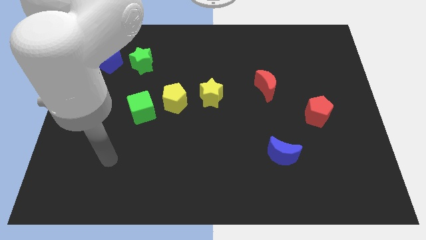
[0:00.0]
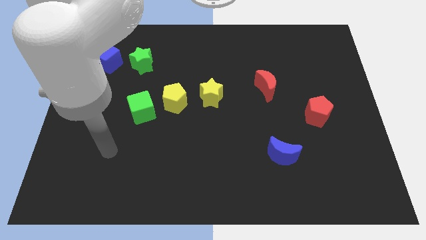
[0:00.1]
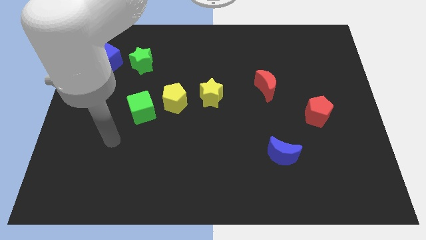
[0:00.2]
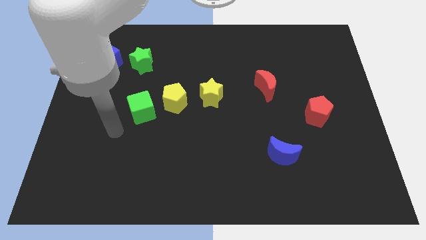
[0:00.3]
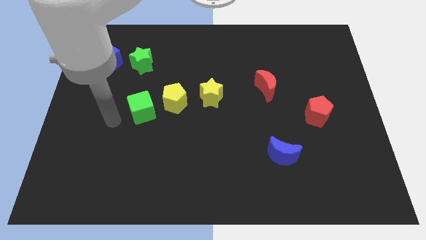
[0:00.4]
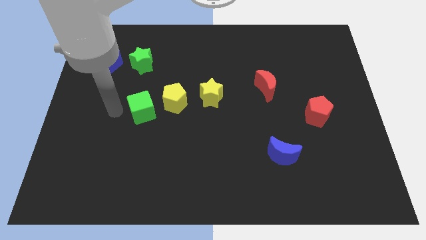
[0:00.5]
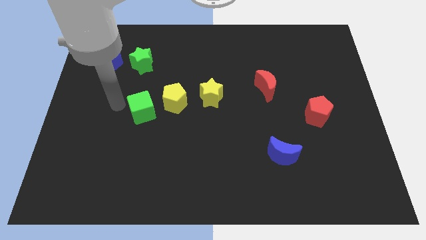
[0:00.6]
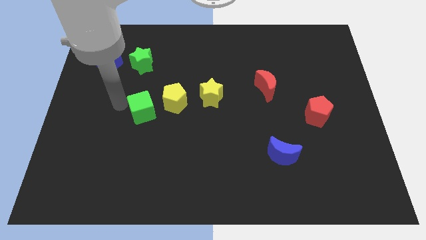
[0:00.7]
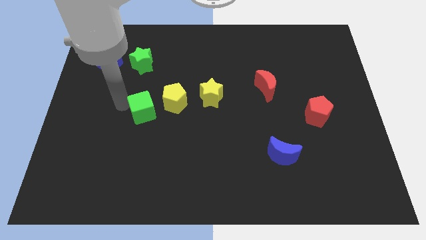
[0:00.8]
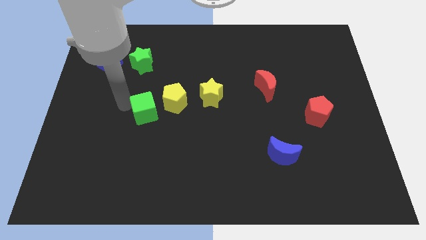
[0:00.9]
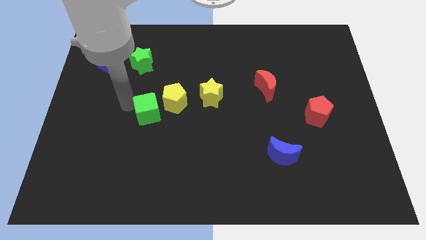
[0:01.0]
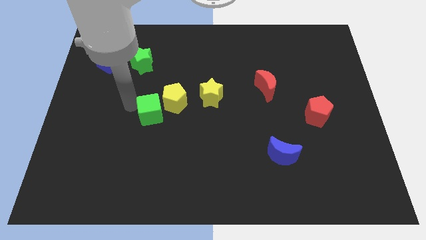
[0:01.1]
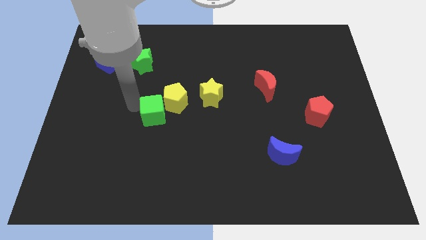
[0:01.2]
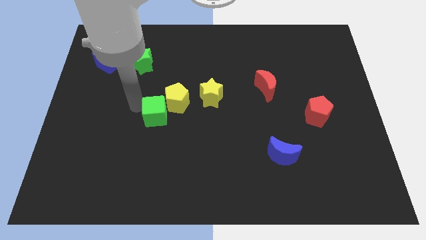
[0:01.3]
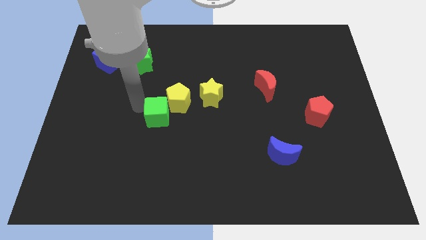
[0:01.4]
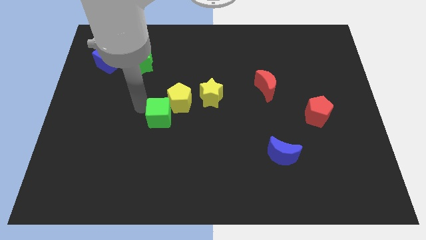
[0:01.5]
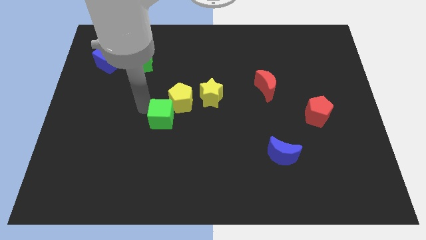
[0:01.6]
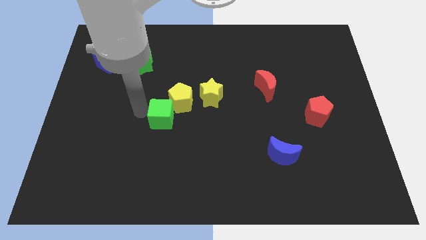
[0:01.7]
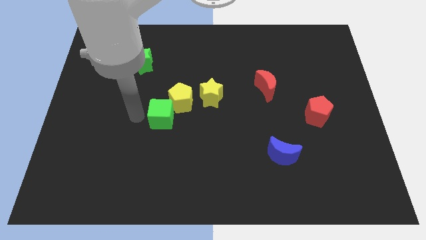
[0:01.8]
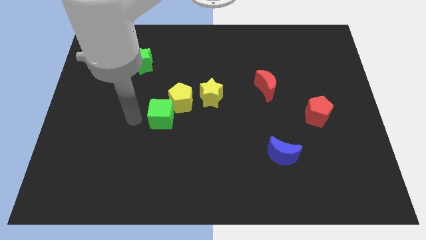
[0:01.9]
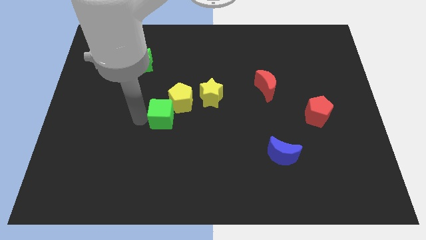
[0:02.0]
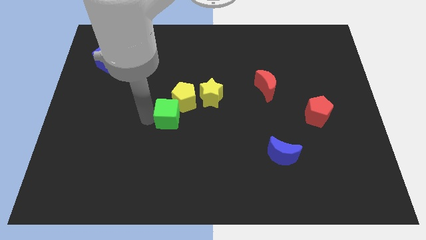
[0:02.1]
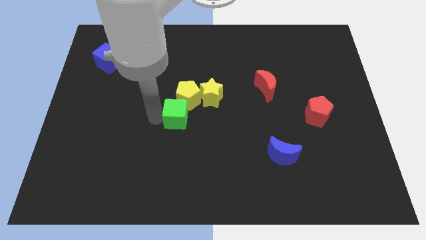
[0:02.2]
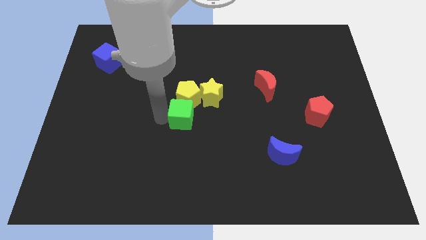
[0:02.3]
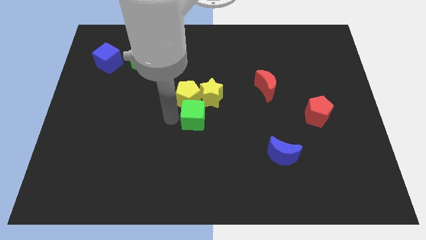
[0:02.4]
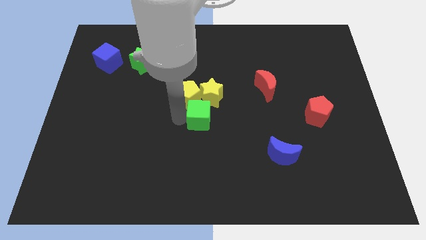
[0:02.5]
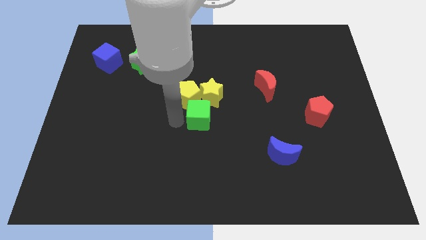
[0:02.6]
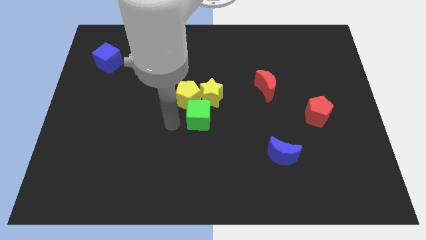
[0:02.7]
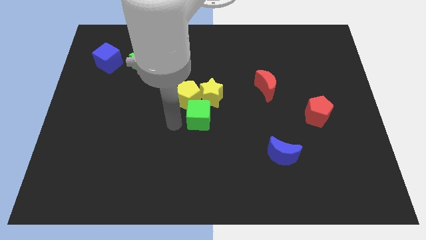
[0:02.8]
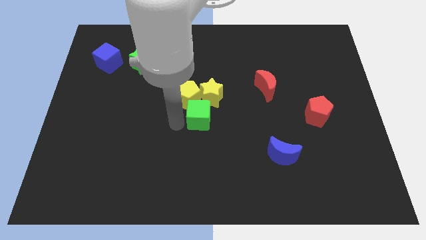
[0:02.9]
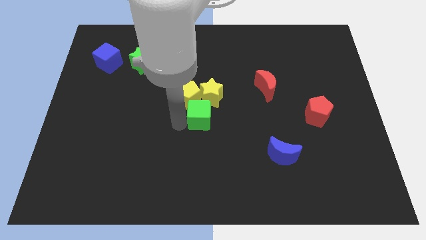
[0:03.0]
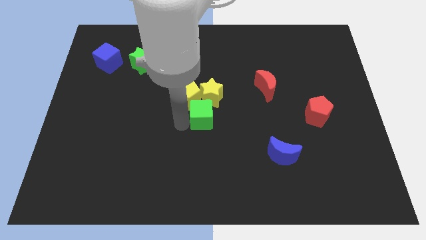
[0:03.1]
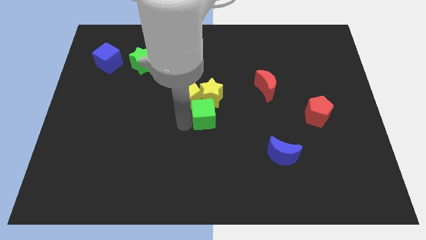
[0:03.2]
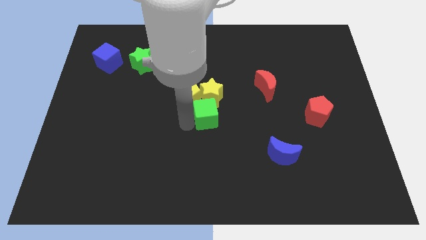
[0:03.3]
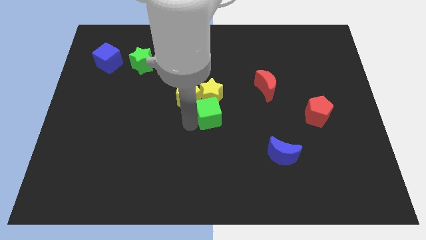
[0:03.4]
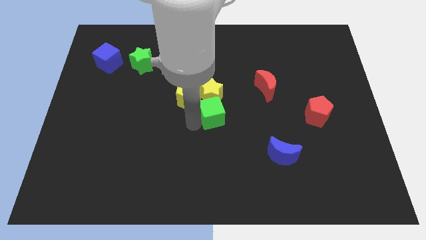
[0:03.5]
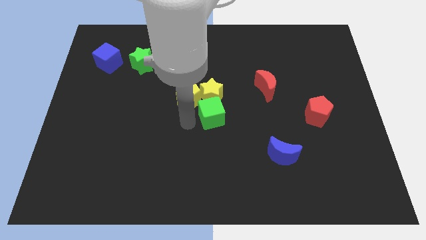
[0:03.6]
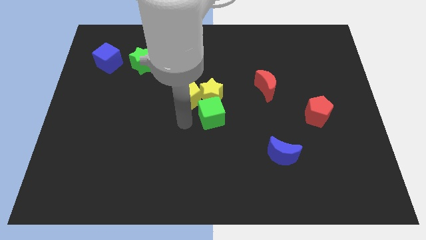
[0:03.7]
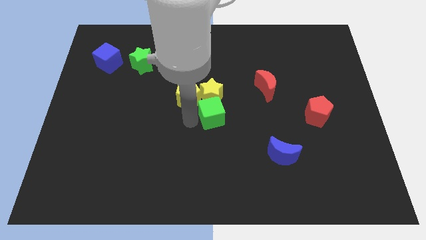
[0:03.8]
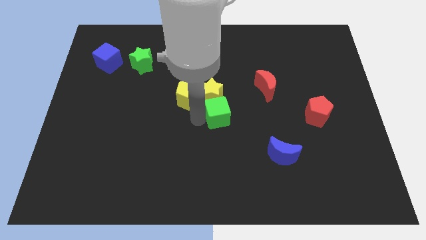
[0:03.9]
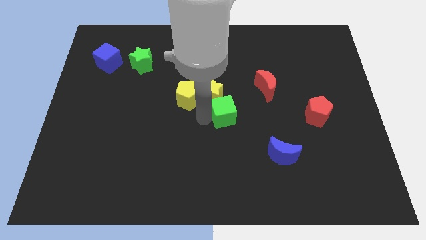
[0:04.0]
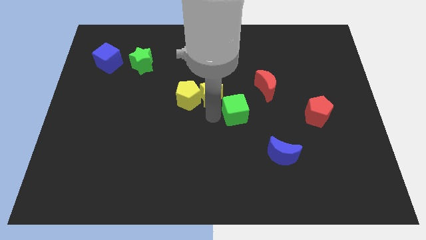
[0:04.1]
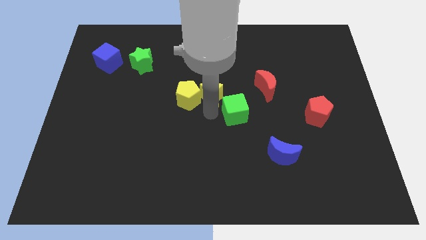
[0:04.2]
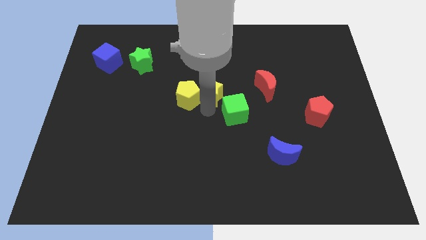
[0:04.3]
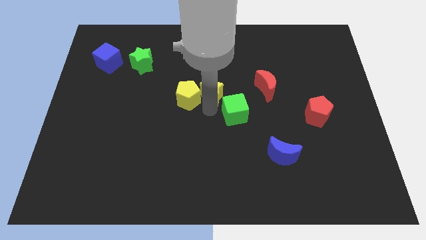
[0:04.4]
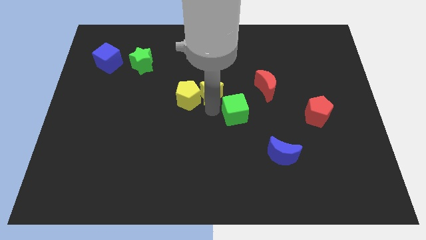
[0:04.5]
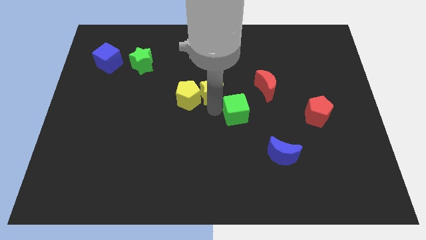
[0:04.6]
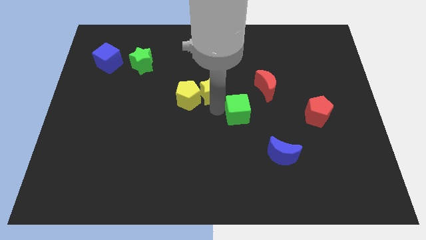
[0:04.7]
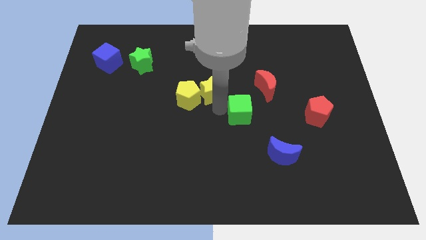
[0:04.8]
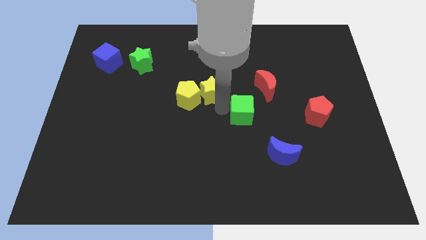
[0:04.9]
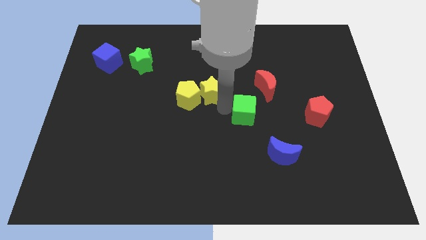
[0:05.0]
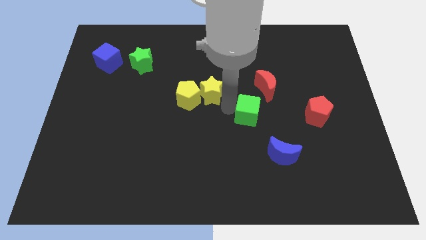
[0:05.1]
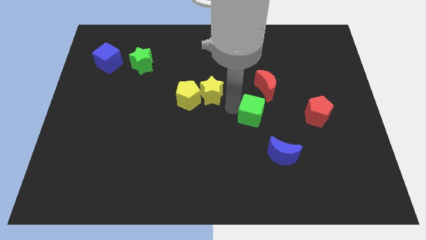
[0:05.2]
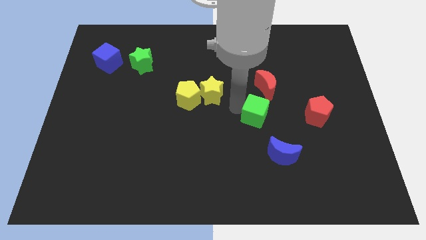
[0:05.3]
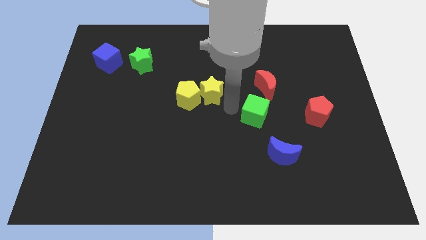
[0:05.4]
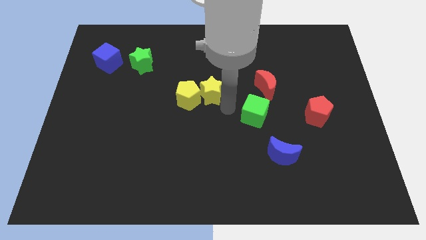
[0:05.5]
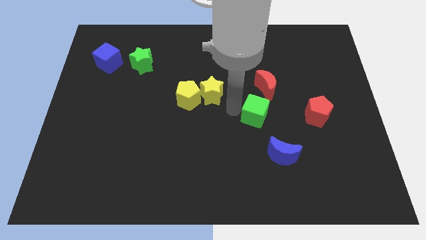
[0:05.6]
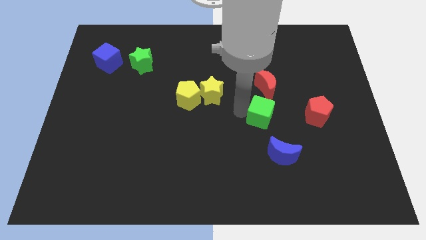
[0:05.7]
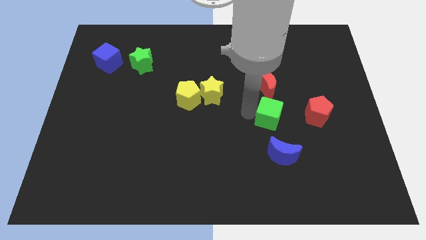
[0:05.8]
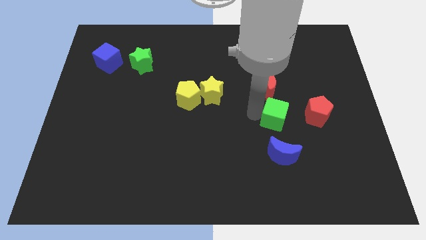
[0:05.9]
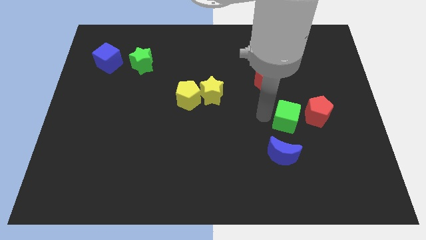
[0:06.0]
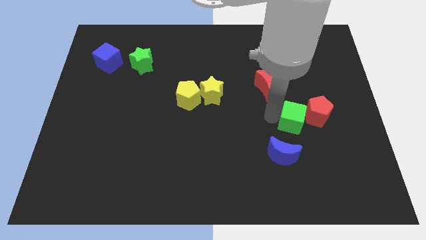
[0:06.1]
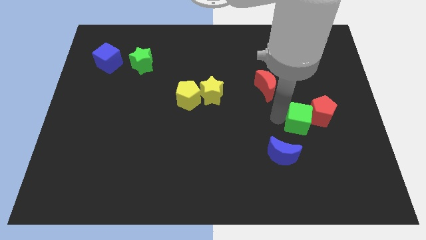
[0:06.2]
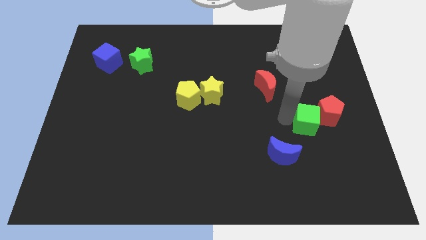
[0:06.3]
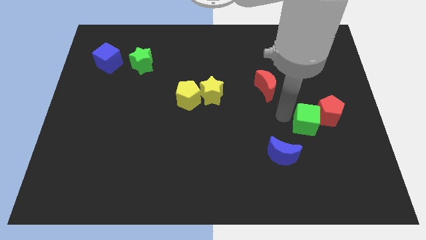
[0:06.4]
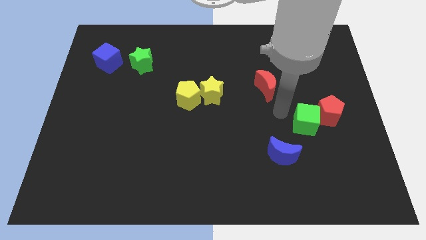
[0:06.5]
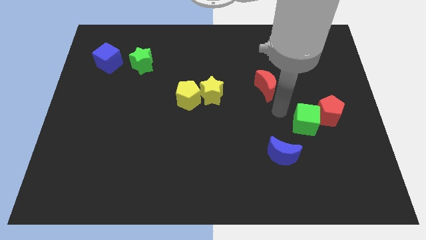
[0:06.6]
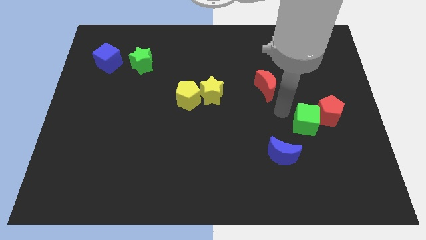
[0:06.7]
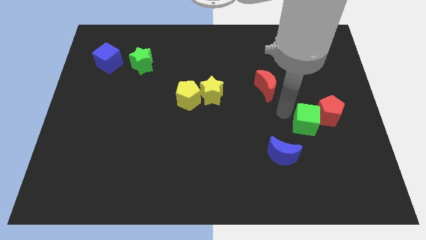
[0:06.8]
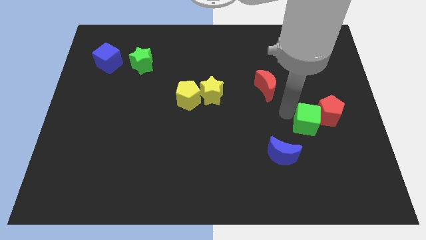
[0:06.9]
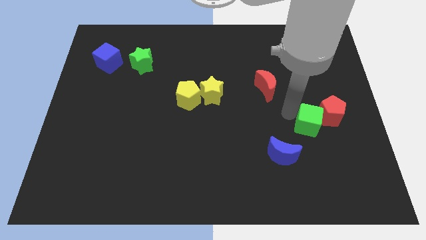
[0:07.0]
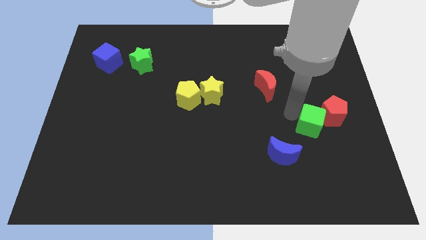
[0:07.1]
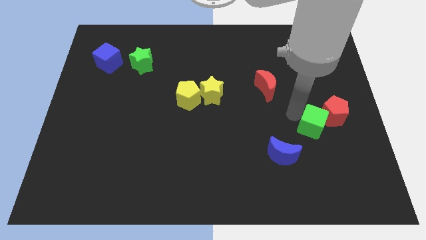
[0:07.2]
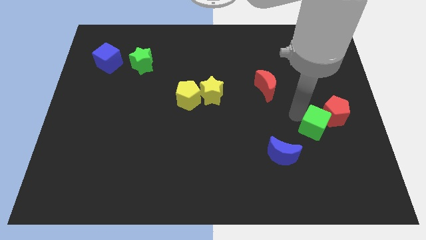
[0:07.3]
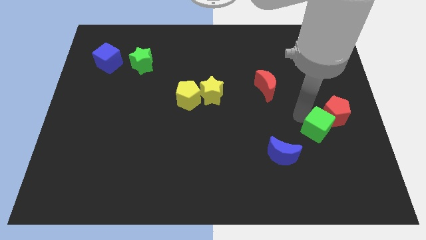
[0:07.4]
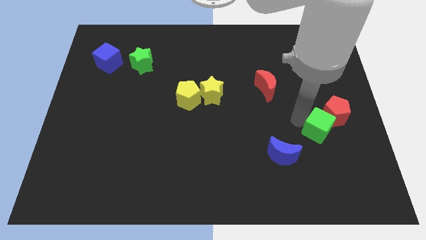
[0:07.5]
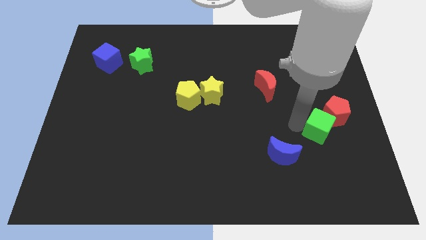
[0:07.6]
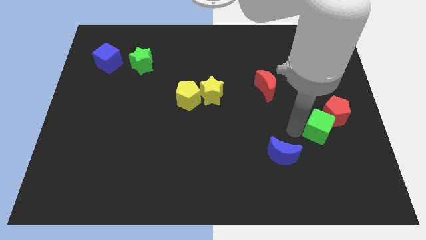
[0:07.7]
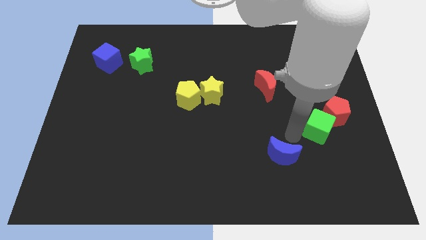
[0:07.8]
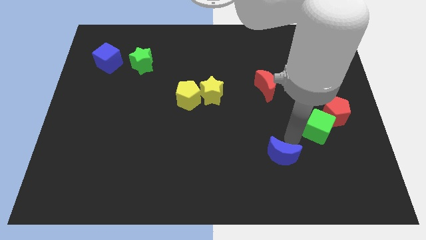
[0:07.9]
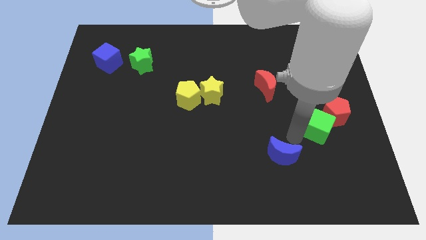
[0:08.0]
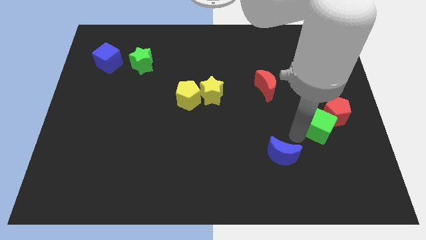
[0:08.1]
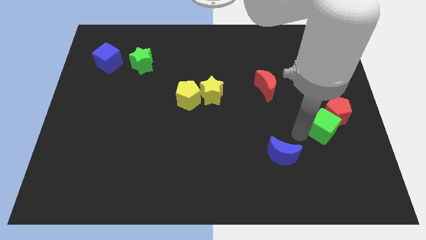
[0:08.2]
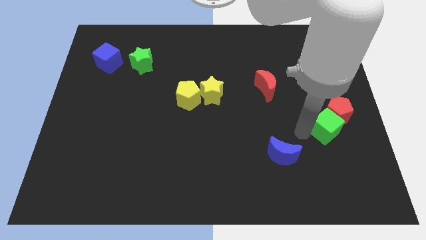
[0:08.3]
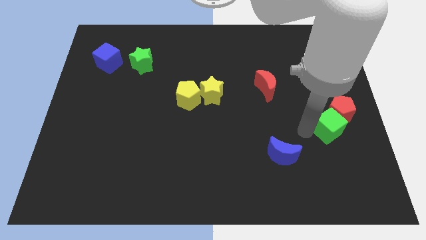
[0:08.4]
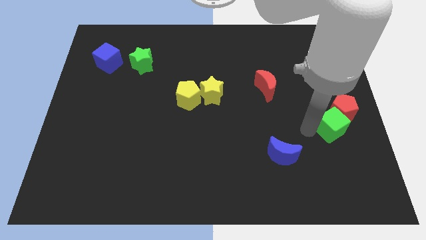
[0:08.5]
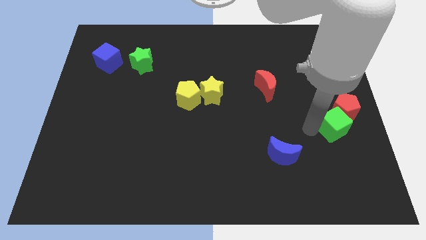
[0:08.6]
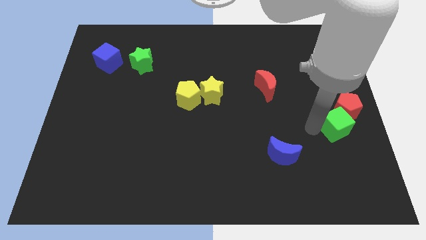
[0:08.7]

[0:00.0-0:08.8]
slide the green cube to the right side
